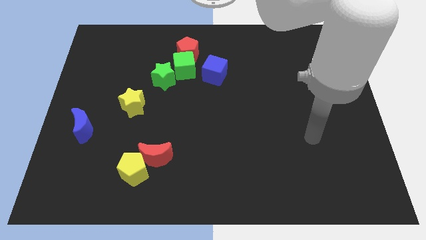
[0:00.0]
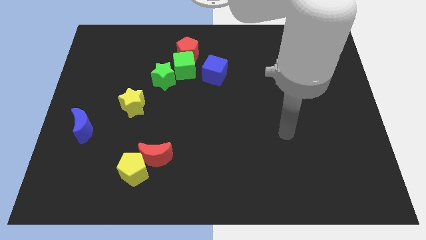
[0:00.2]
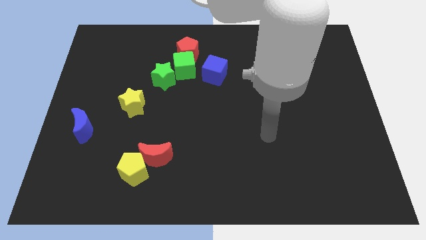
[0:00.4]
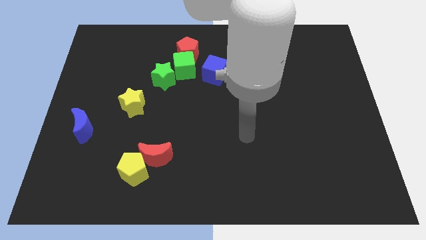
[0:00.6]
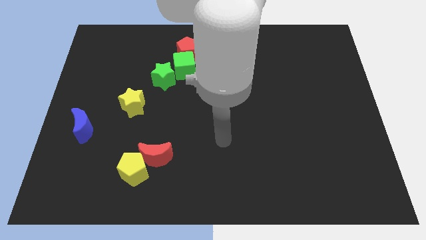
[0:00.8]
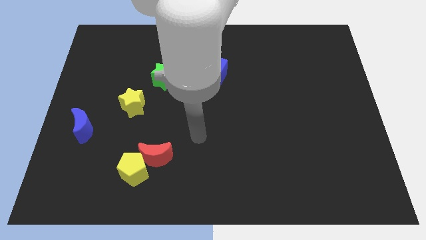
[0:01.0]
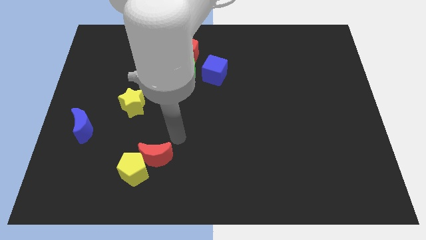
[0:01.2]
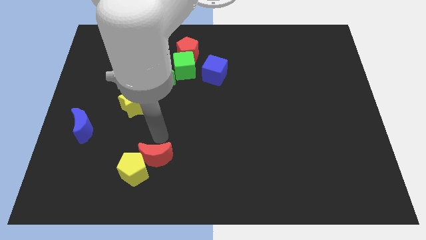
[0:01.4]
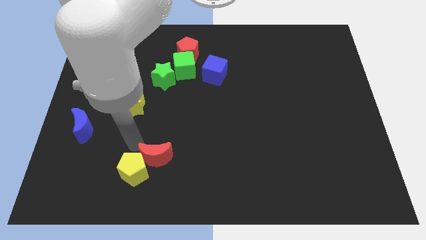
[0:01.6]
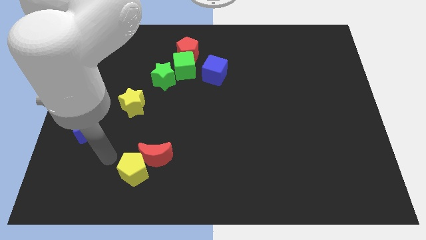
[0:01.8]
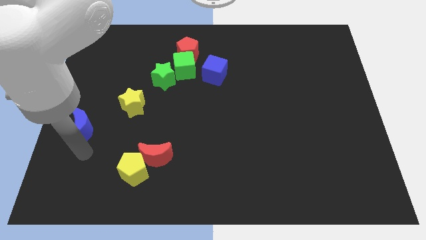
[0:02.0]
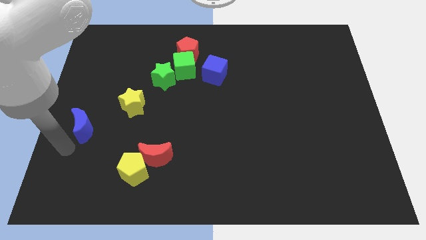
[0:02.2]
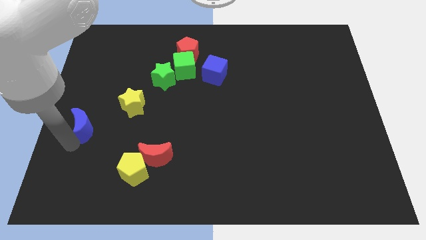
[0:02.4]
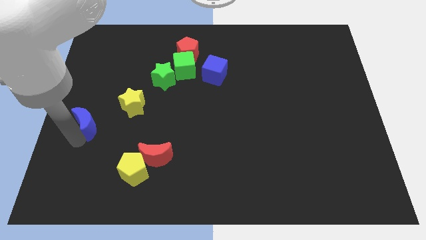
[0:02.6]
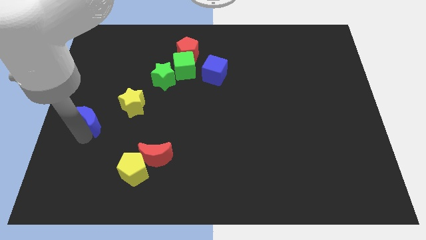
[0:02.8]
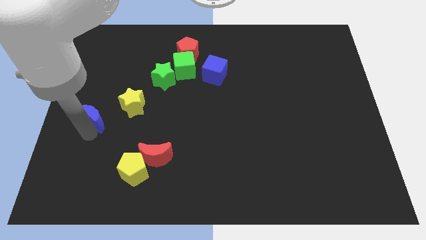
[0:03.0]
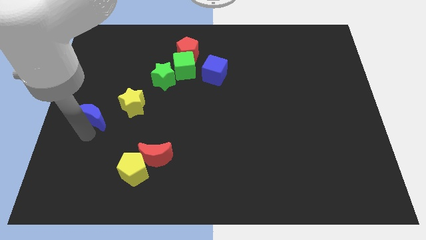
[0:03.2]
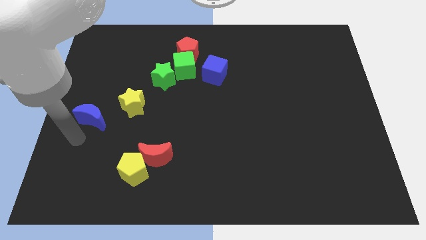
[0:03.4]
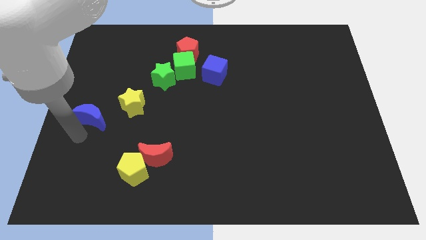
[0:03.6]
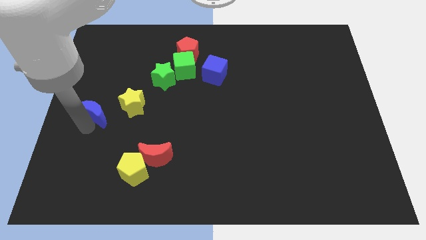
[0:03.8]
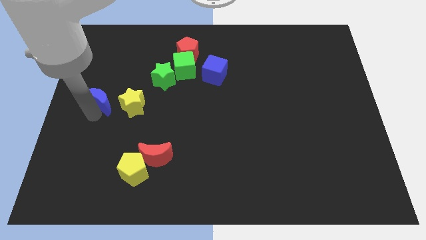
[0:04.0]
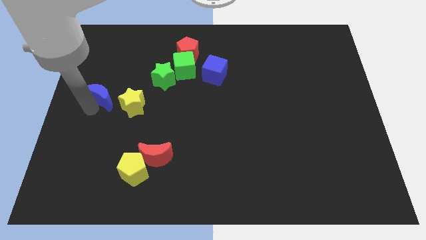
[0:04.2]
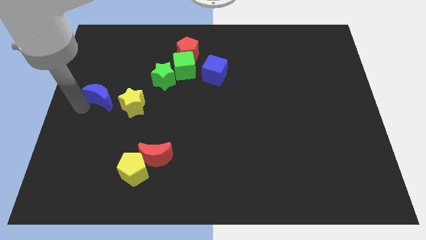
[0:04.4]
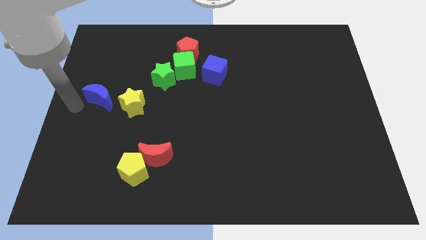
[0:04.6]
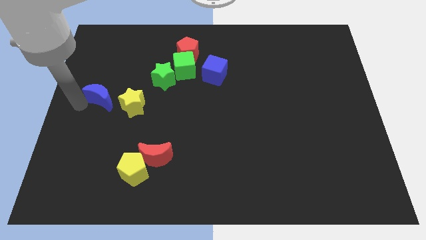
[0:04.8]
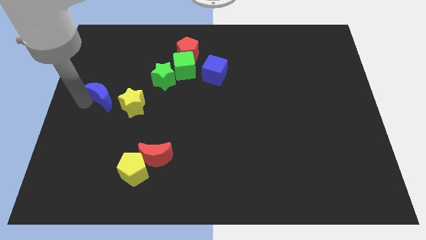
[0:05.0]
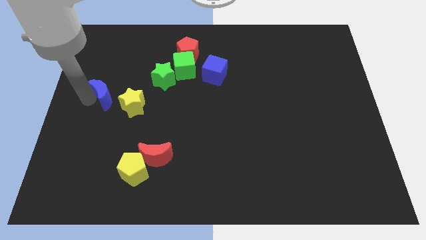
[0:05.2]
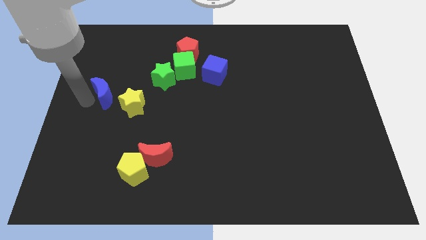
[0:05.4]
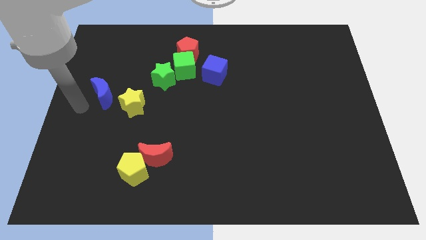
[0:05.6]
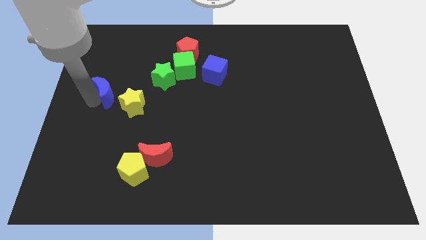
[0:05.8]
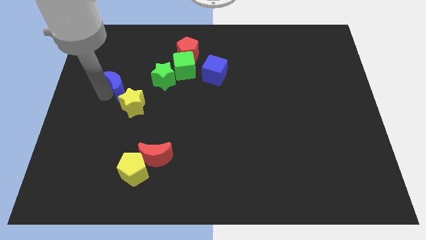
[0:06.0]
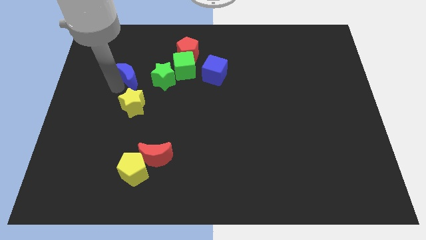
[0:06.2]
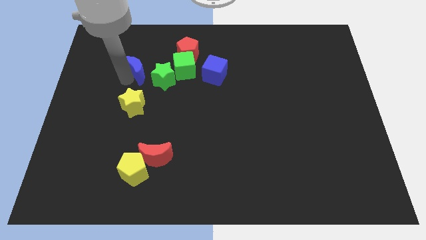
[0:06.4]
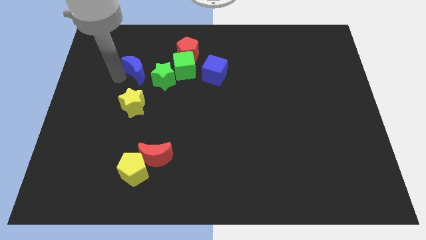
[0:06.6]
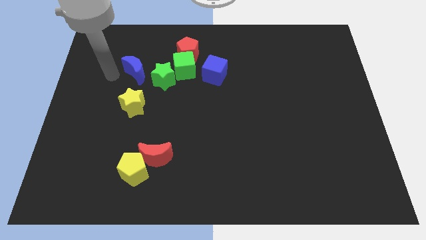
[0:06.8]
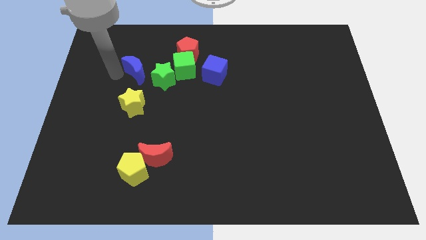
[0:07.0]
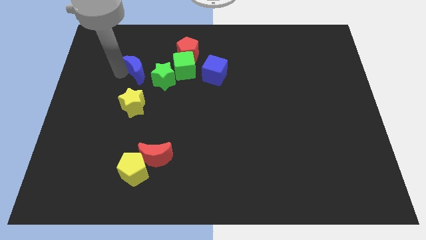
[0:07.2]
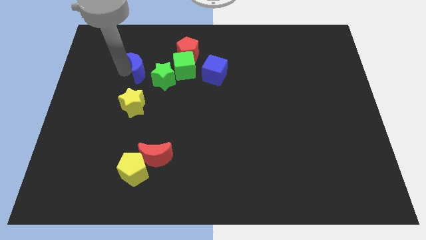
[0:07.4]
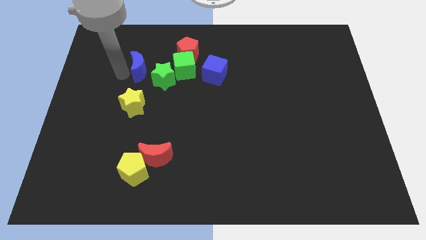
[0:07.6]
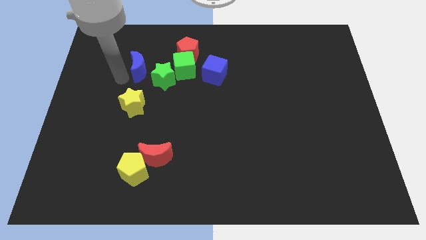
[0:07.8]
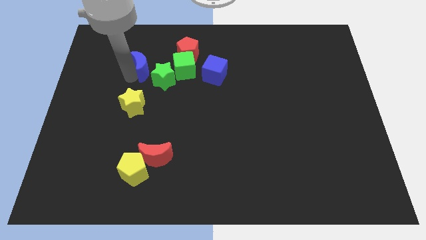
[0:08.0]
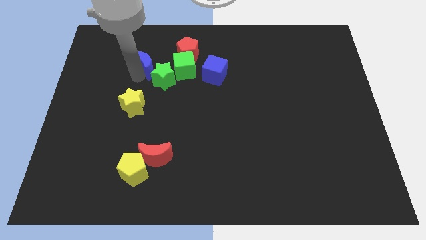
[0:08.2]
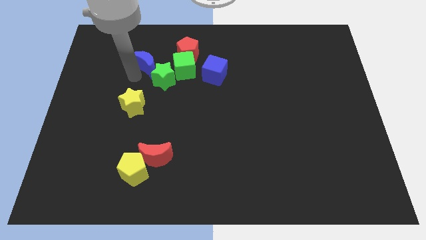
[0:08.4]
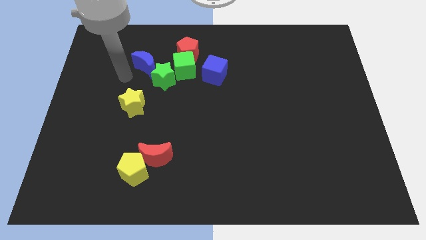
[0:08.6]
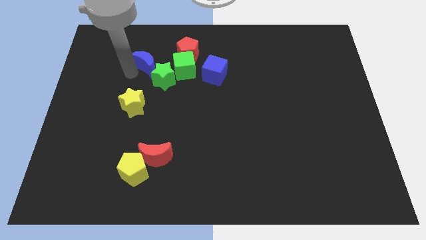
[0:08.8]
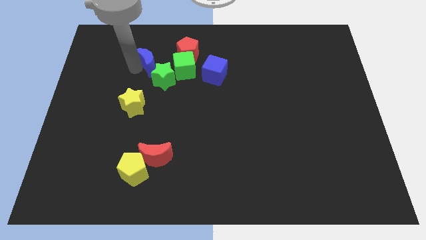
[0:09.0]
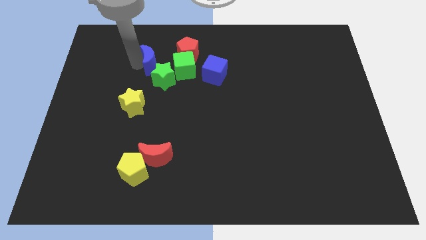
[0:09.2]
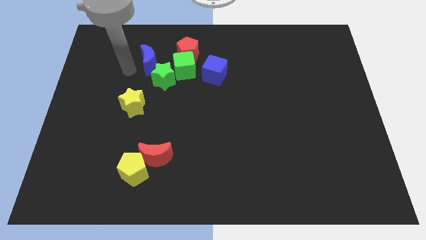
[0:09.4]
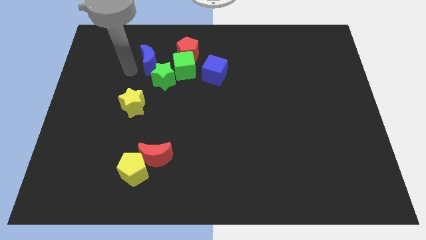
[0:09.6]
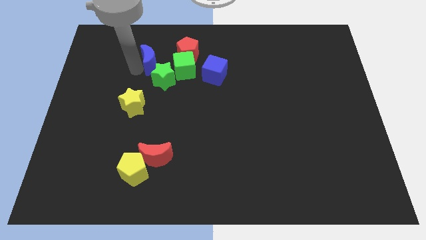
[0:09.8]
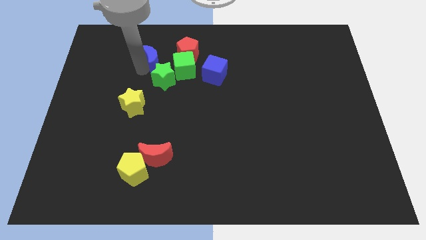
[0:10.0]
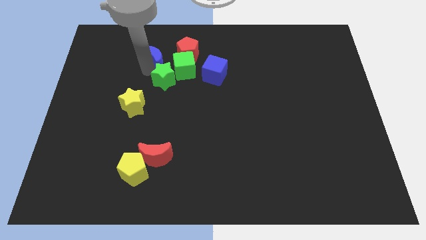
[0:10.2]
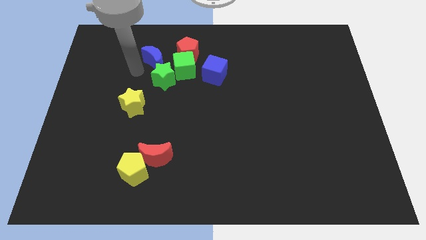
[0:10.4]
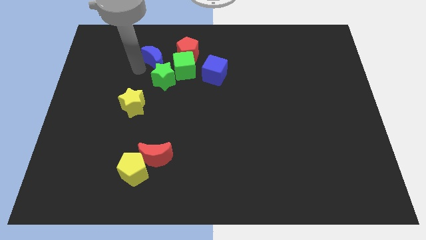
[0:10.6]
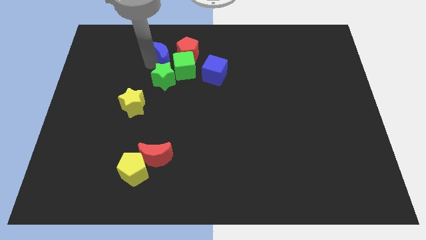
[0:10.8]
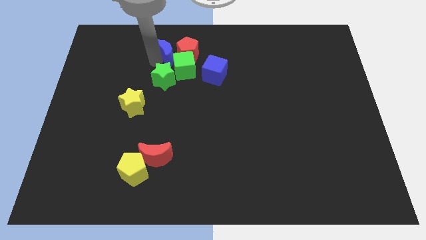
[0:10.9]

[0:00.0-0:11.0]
slide the blue moon close to the red pentagon

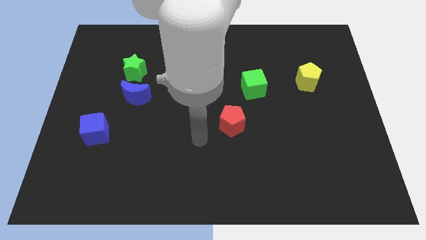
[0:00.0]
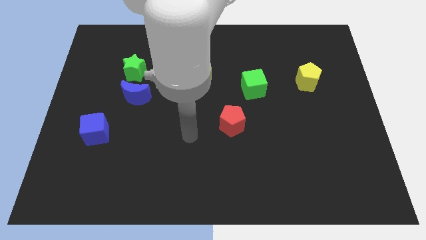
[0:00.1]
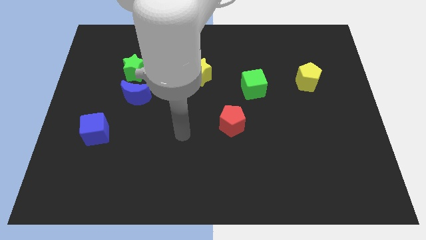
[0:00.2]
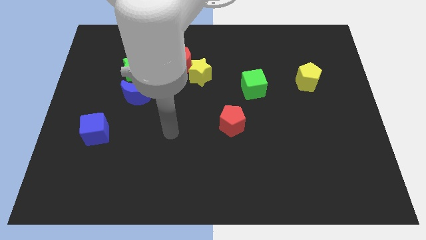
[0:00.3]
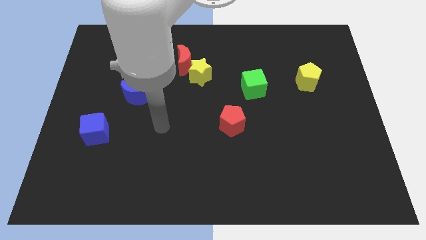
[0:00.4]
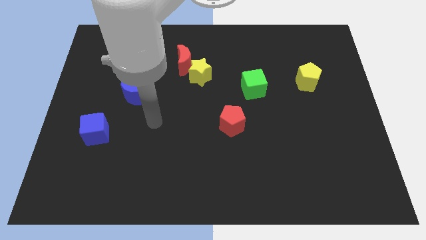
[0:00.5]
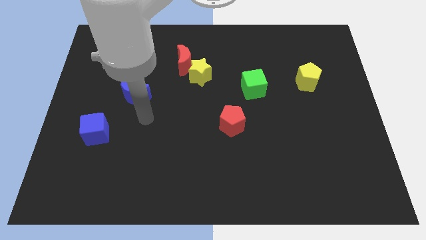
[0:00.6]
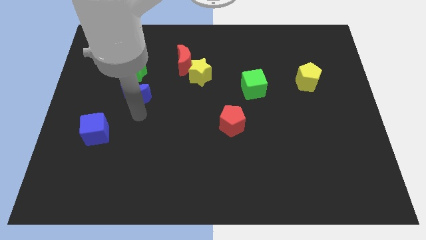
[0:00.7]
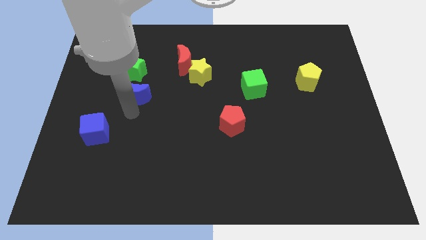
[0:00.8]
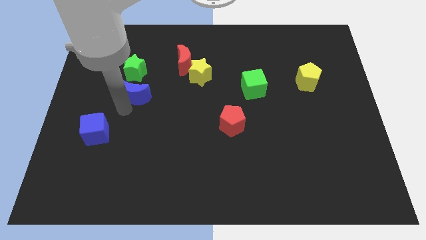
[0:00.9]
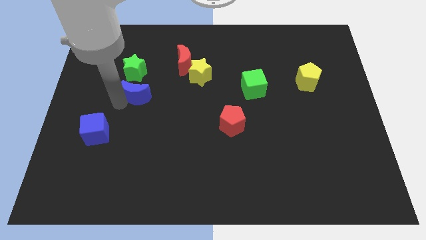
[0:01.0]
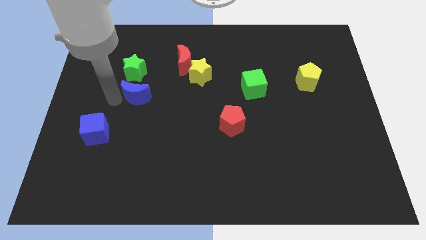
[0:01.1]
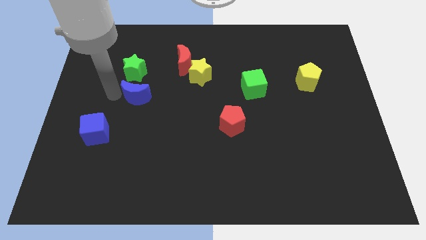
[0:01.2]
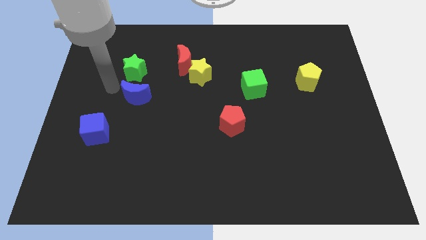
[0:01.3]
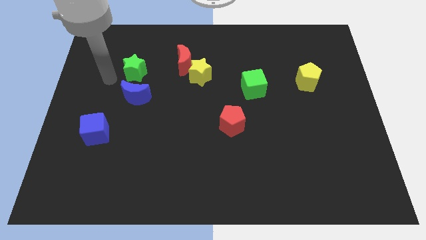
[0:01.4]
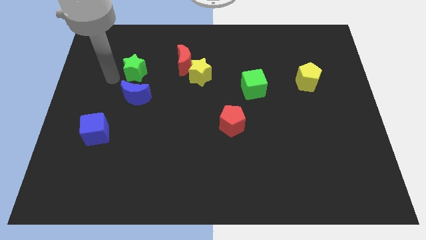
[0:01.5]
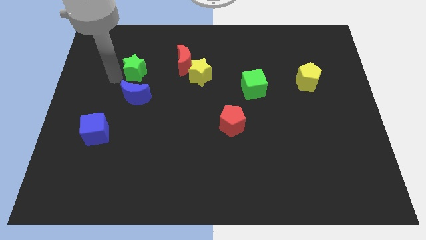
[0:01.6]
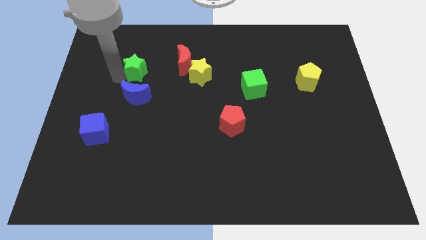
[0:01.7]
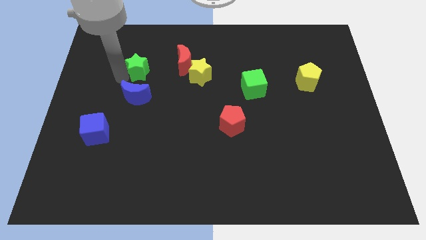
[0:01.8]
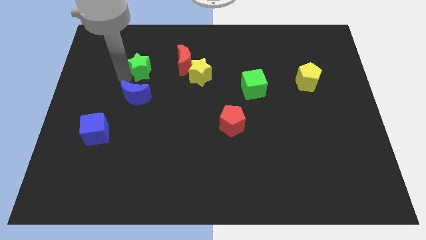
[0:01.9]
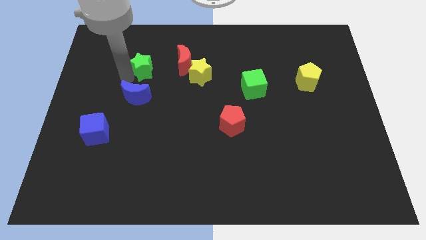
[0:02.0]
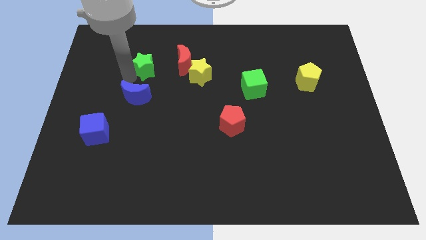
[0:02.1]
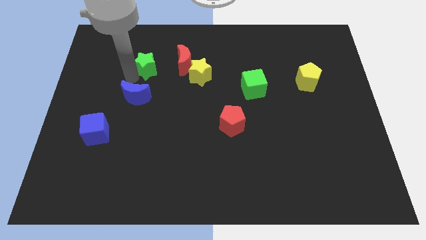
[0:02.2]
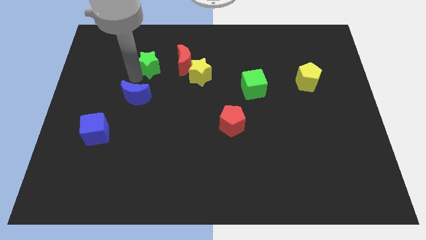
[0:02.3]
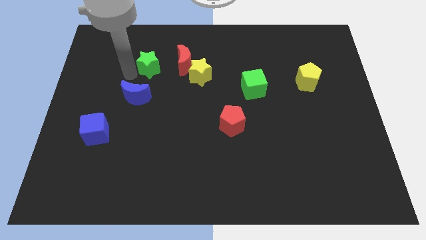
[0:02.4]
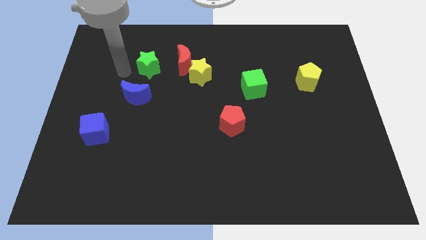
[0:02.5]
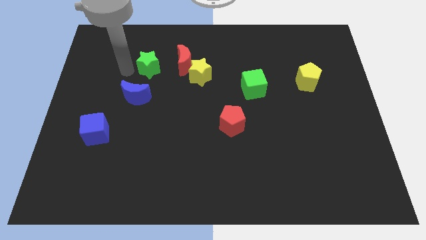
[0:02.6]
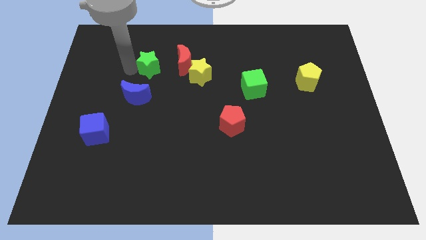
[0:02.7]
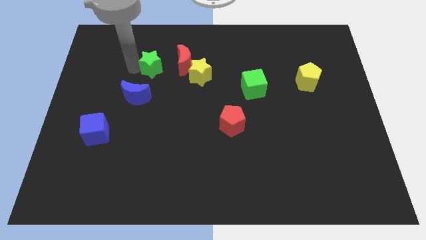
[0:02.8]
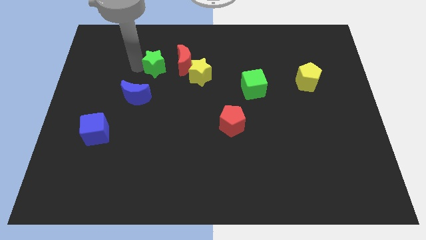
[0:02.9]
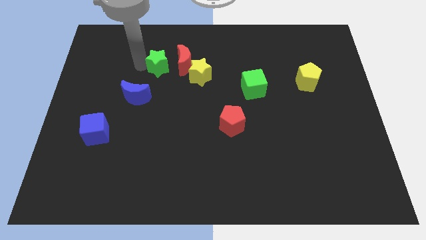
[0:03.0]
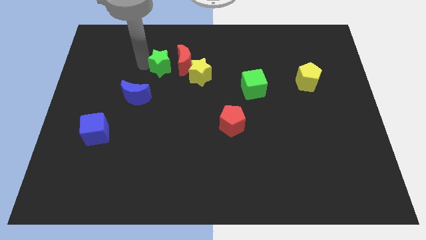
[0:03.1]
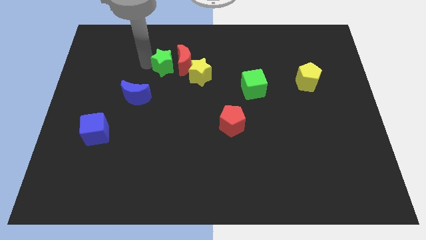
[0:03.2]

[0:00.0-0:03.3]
put the green star close to the red moon
